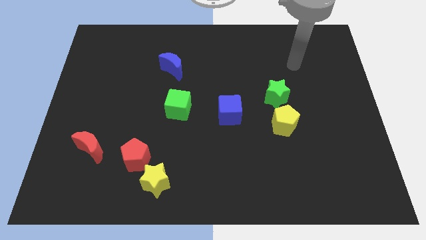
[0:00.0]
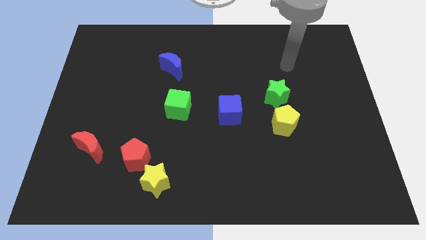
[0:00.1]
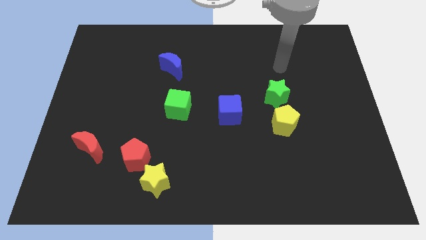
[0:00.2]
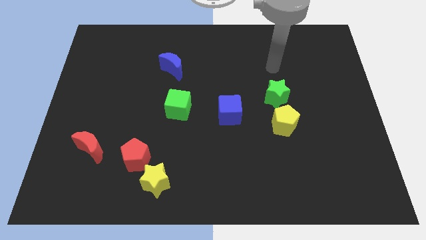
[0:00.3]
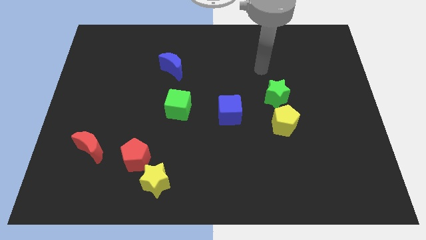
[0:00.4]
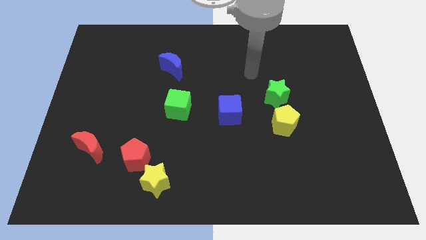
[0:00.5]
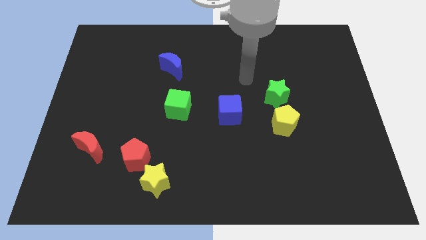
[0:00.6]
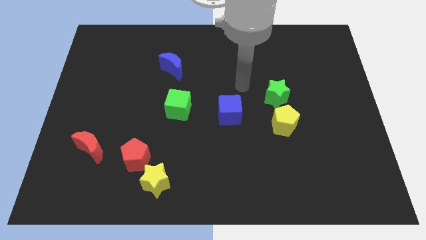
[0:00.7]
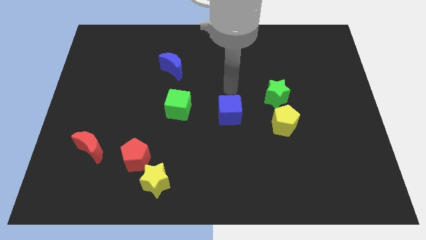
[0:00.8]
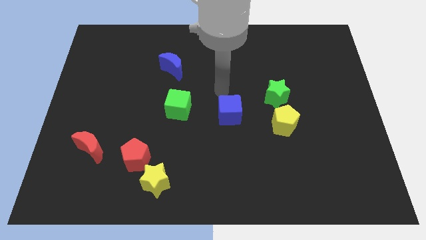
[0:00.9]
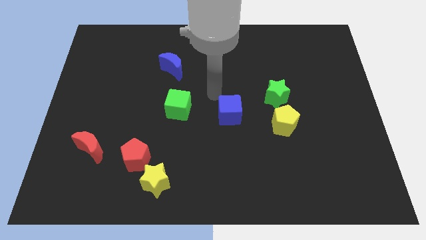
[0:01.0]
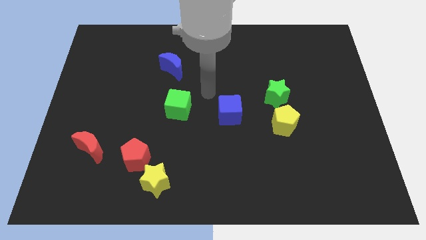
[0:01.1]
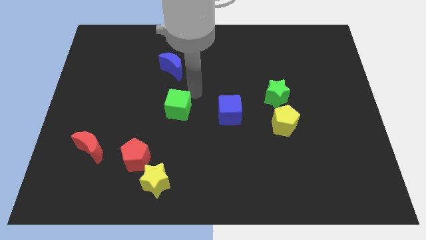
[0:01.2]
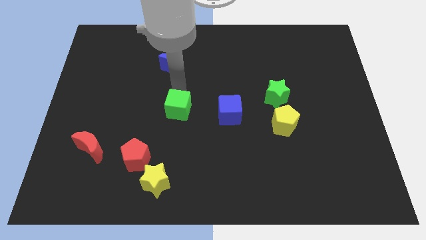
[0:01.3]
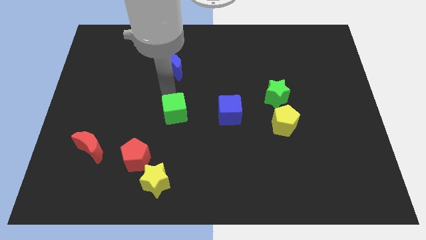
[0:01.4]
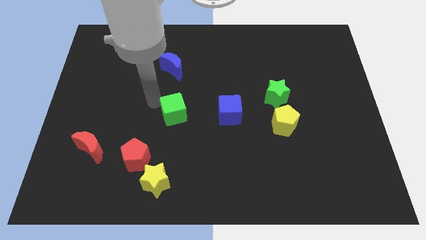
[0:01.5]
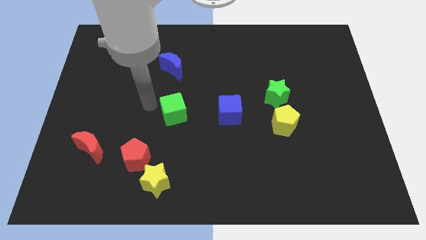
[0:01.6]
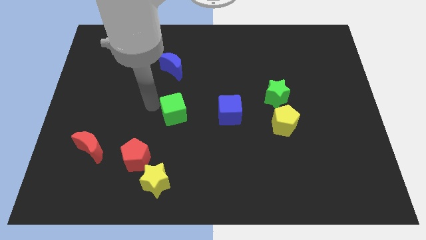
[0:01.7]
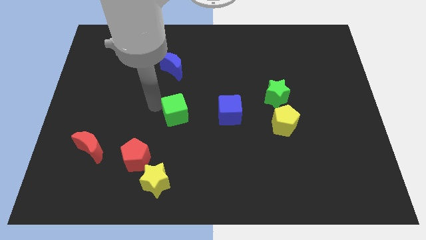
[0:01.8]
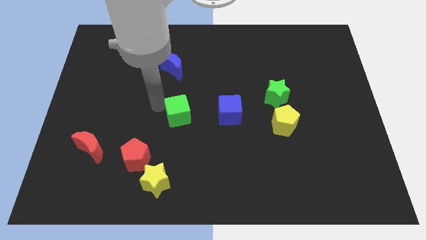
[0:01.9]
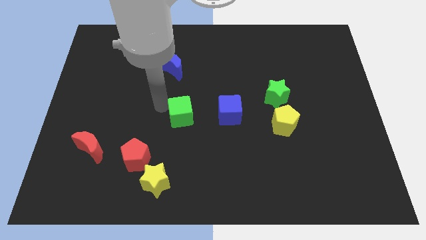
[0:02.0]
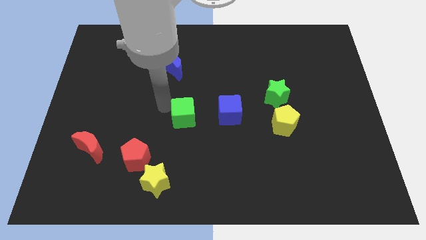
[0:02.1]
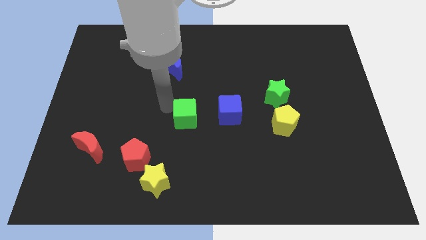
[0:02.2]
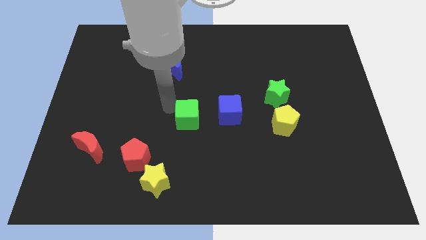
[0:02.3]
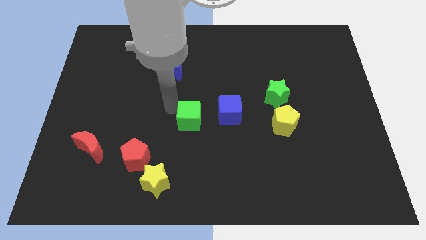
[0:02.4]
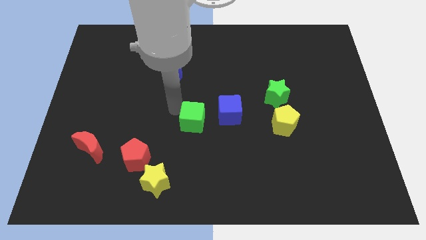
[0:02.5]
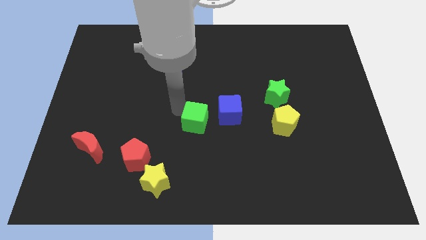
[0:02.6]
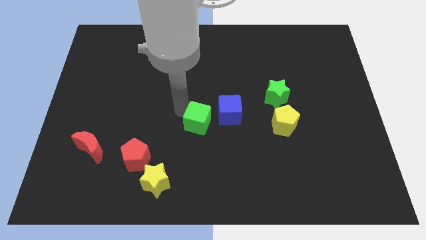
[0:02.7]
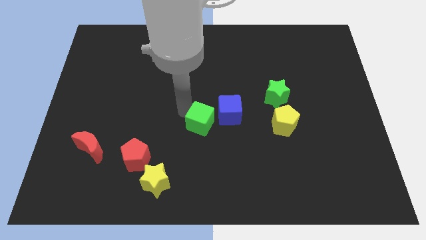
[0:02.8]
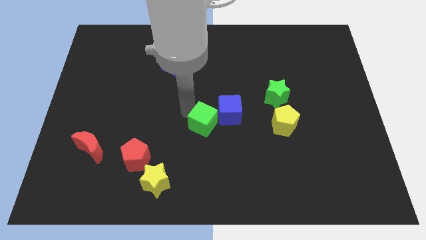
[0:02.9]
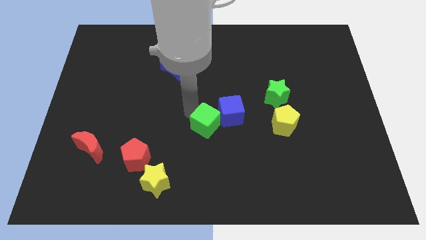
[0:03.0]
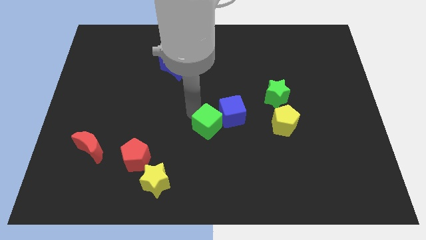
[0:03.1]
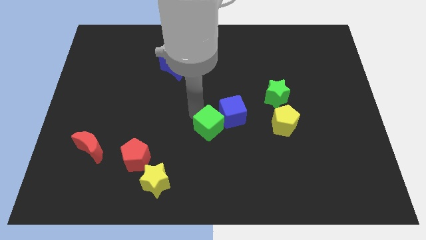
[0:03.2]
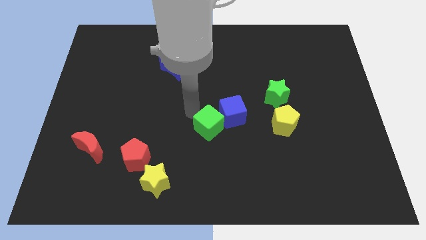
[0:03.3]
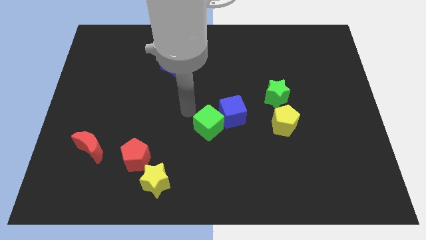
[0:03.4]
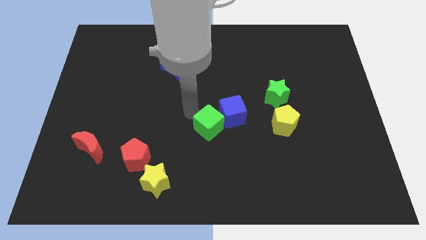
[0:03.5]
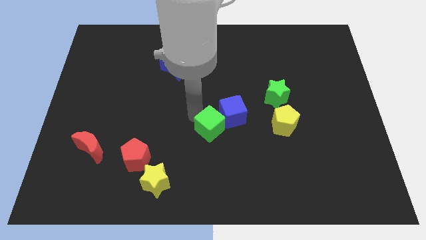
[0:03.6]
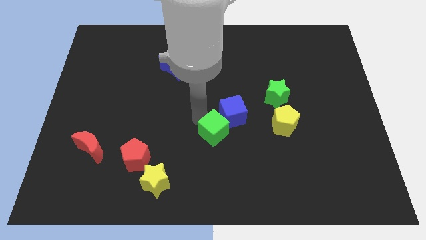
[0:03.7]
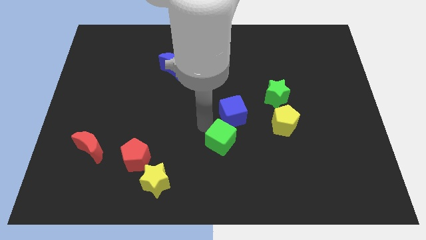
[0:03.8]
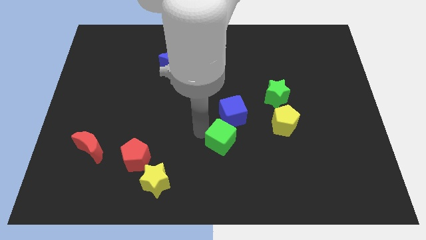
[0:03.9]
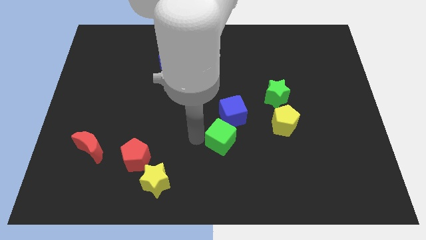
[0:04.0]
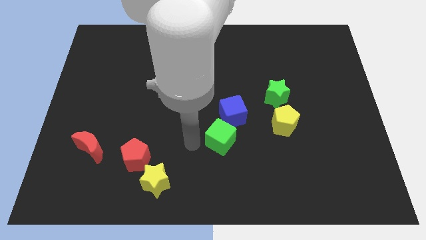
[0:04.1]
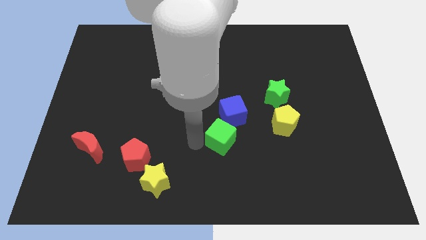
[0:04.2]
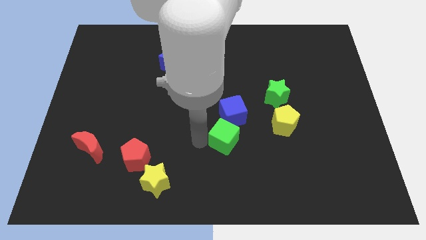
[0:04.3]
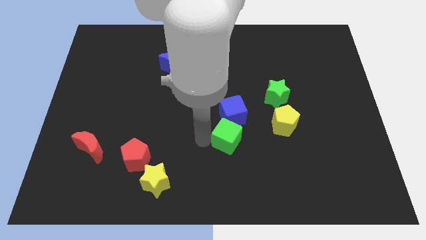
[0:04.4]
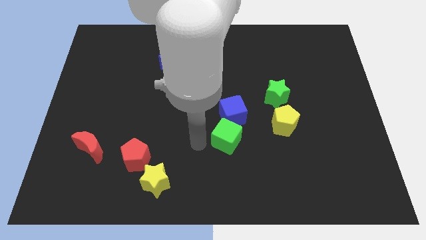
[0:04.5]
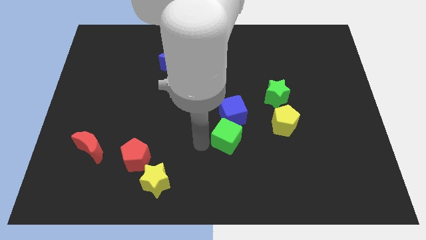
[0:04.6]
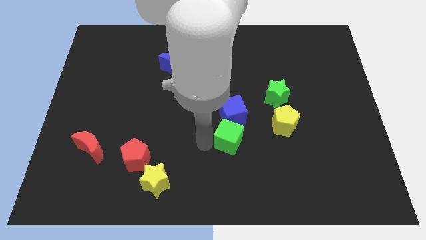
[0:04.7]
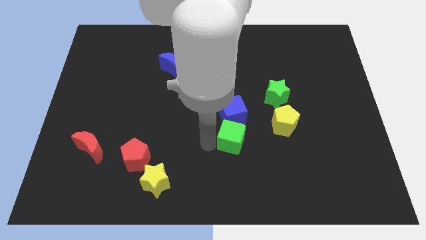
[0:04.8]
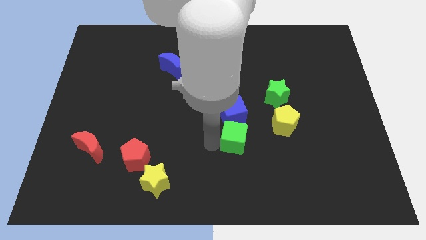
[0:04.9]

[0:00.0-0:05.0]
move the green cube to the bottom right of the blue cube

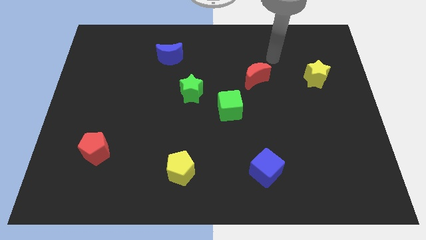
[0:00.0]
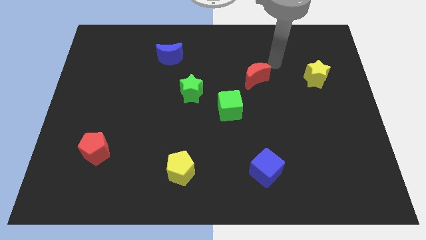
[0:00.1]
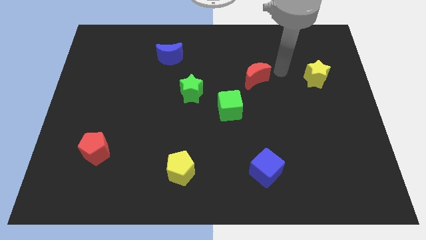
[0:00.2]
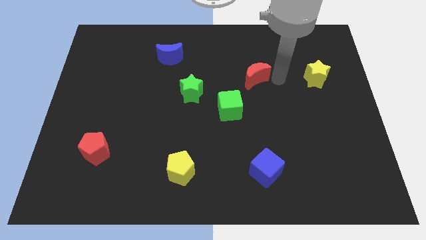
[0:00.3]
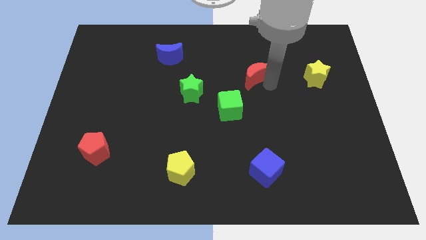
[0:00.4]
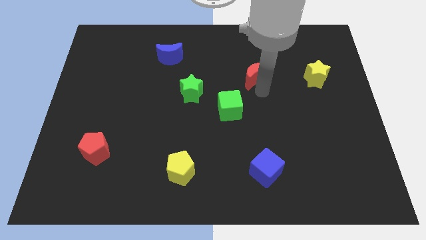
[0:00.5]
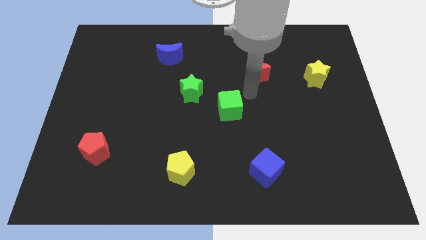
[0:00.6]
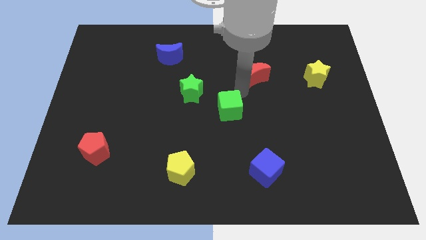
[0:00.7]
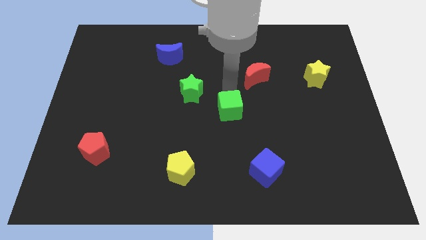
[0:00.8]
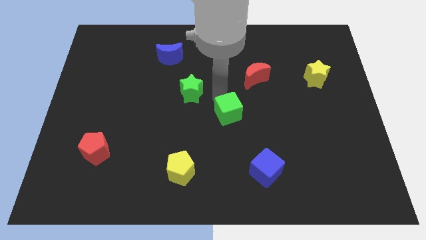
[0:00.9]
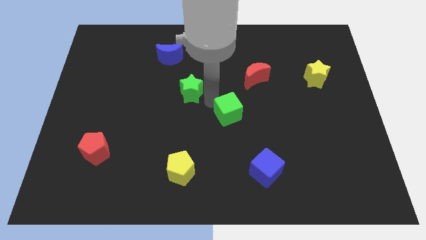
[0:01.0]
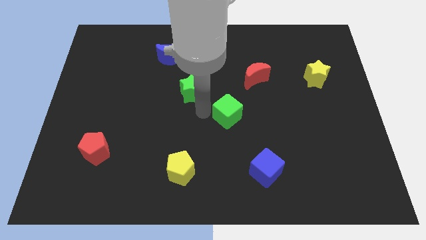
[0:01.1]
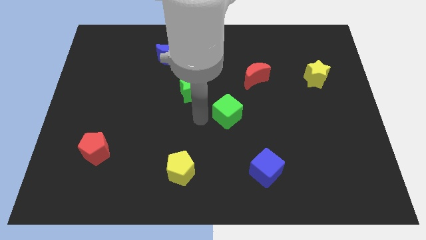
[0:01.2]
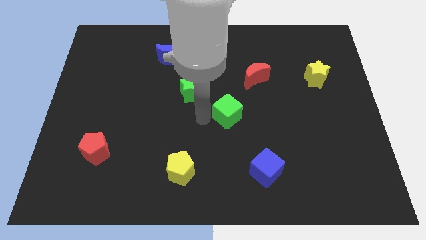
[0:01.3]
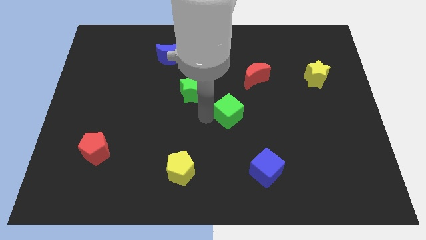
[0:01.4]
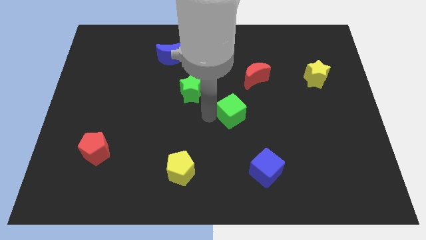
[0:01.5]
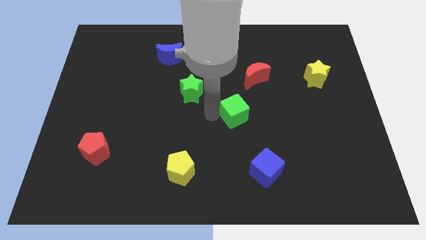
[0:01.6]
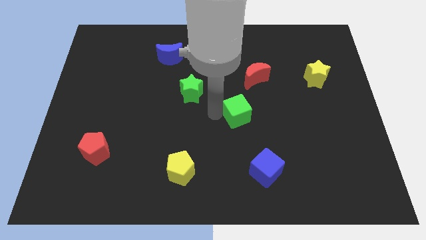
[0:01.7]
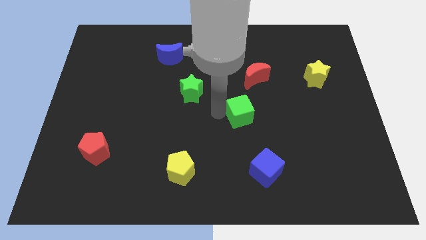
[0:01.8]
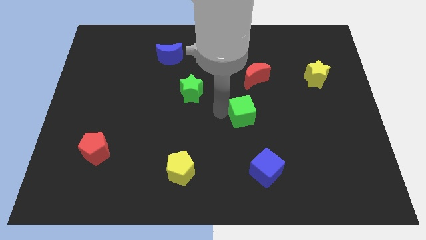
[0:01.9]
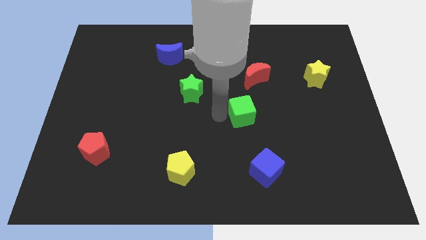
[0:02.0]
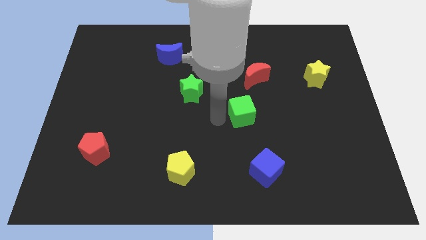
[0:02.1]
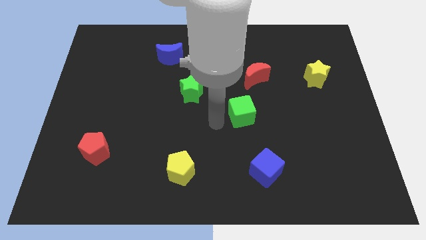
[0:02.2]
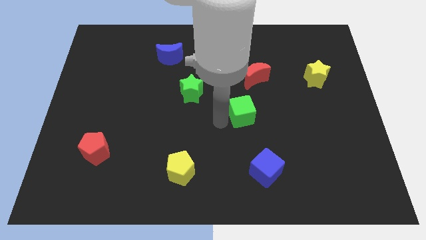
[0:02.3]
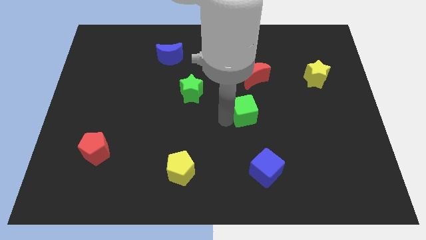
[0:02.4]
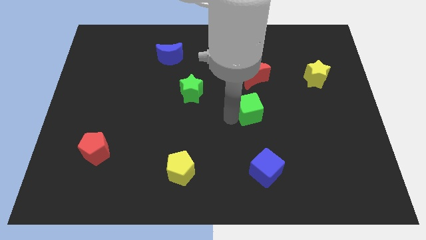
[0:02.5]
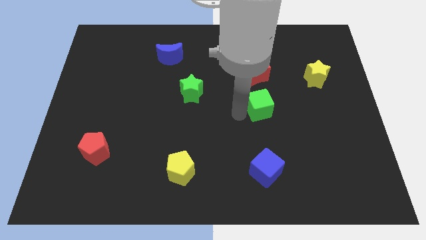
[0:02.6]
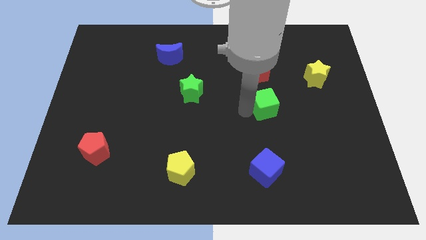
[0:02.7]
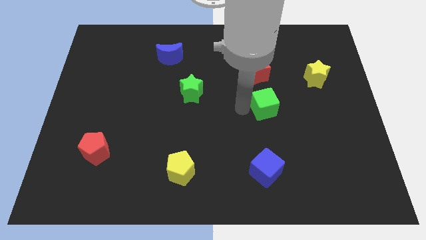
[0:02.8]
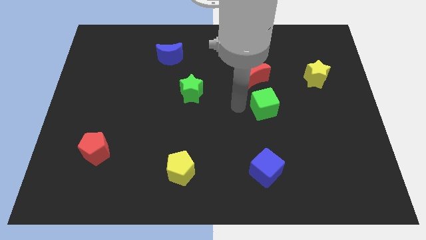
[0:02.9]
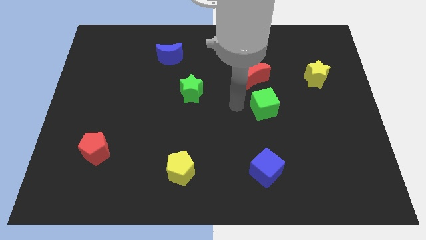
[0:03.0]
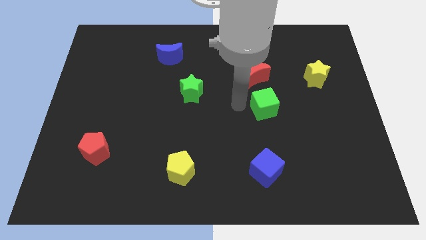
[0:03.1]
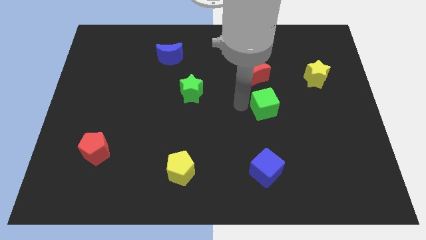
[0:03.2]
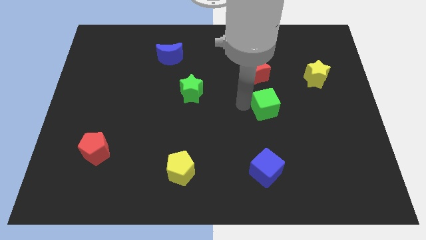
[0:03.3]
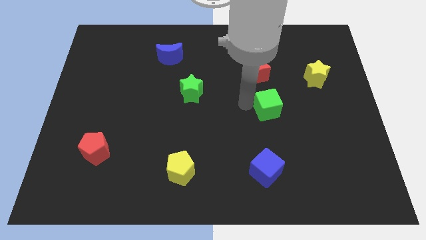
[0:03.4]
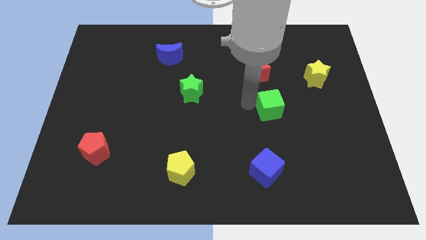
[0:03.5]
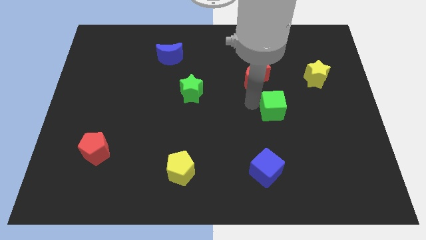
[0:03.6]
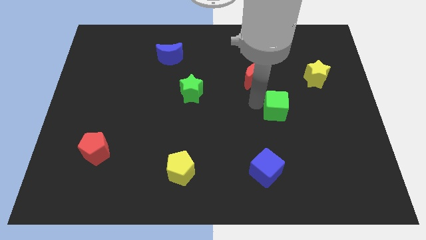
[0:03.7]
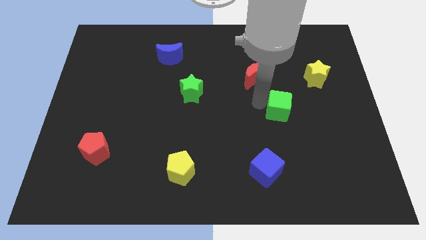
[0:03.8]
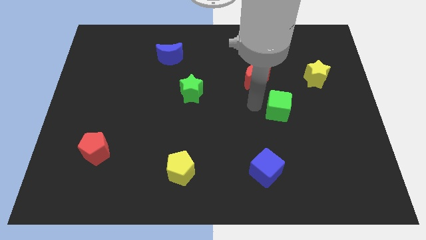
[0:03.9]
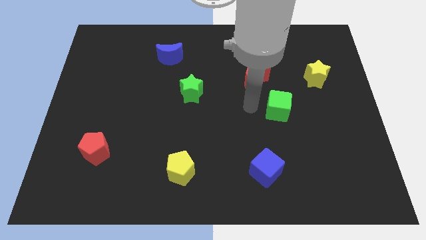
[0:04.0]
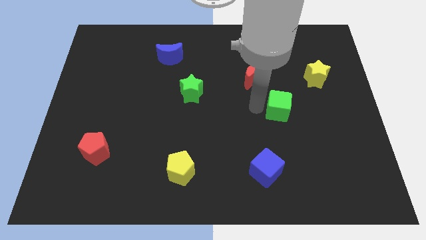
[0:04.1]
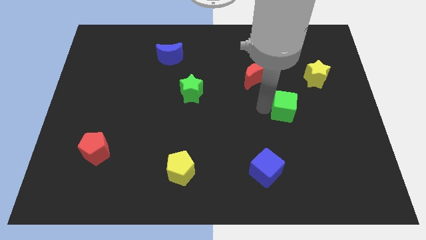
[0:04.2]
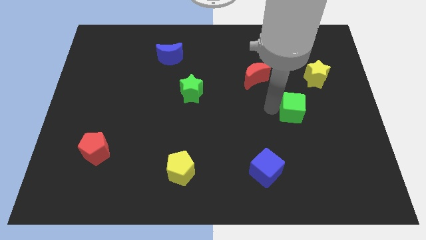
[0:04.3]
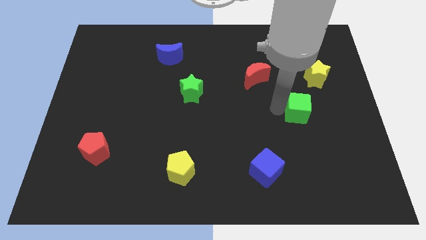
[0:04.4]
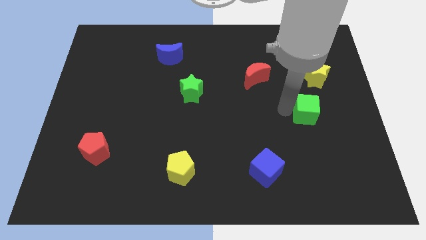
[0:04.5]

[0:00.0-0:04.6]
move the green cube to the bottom side of the yellow star
